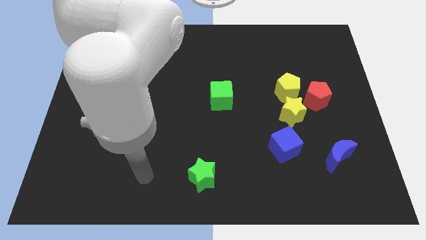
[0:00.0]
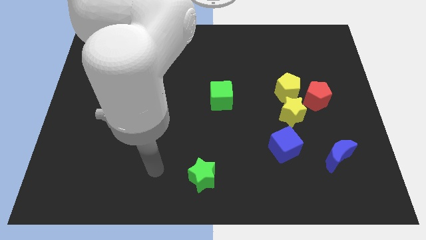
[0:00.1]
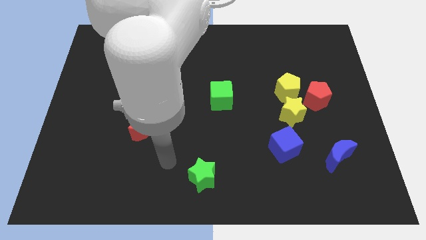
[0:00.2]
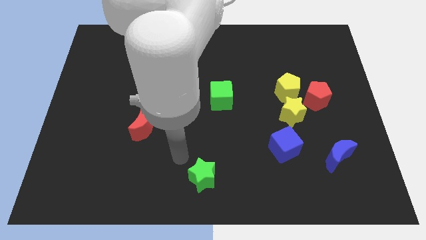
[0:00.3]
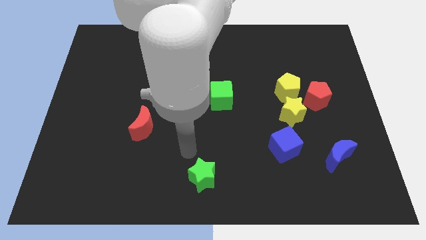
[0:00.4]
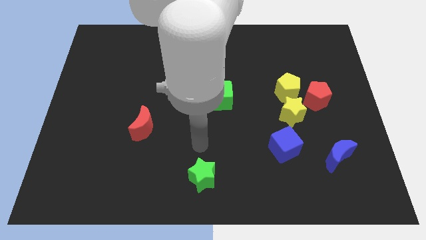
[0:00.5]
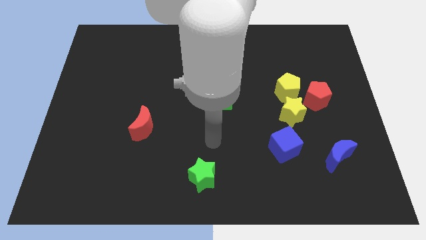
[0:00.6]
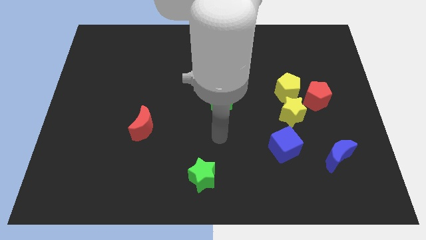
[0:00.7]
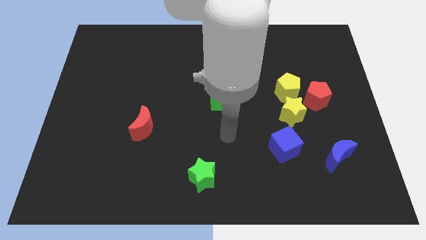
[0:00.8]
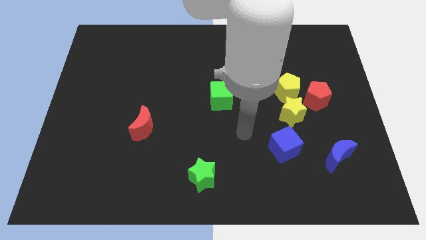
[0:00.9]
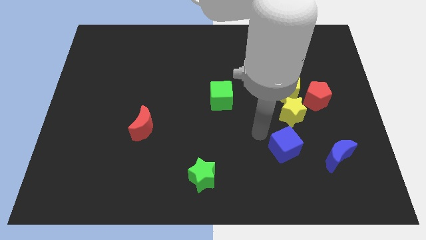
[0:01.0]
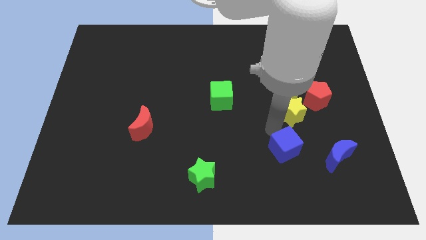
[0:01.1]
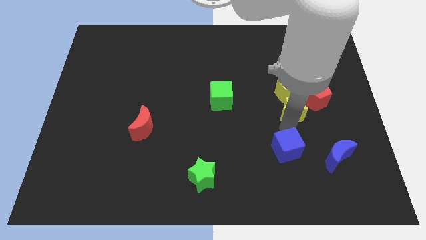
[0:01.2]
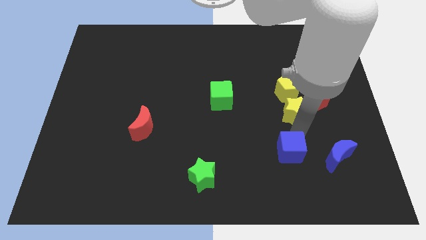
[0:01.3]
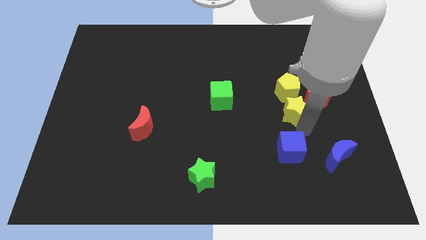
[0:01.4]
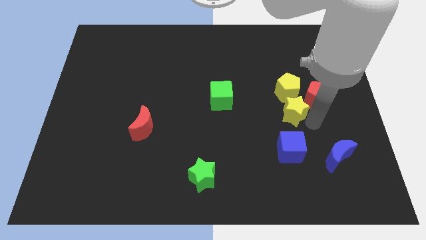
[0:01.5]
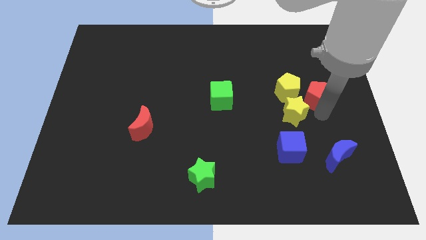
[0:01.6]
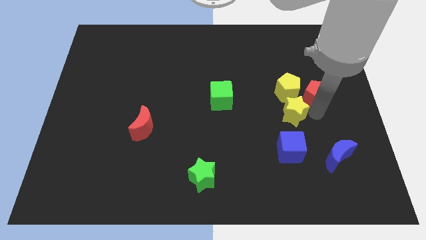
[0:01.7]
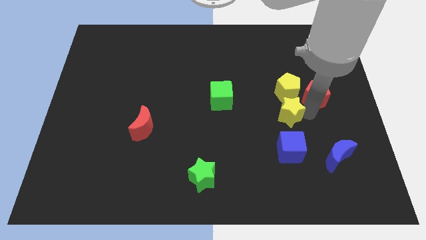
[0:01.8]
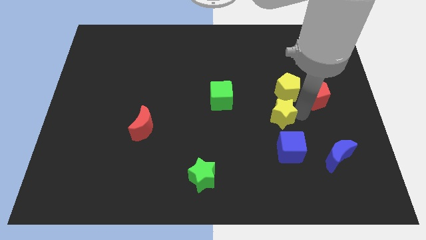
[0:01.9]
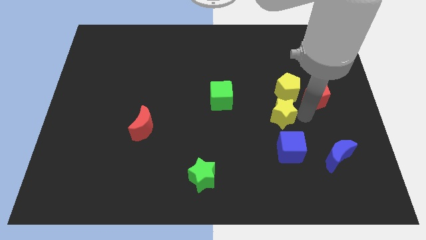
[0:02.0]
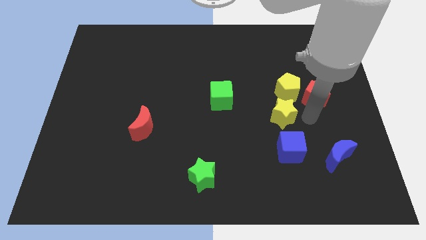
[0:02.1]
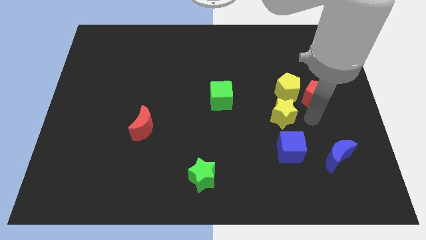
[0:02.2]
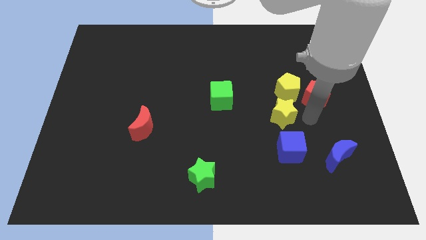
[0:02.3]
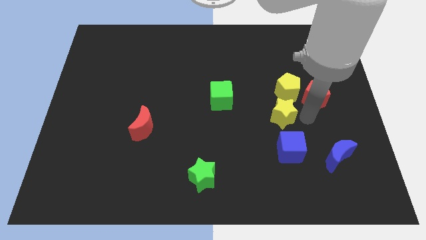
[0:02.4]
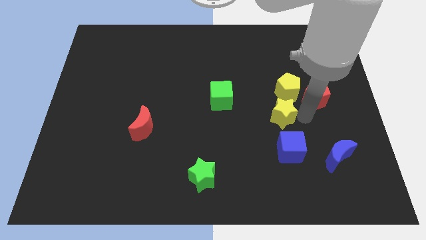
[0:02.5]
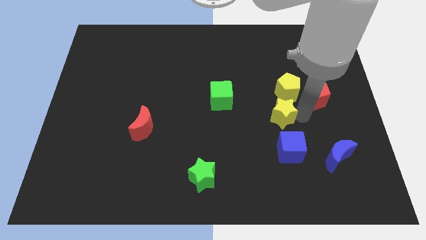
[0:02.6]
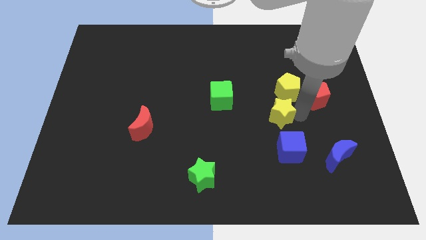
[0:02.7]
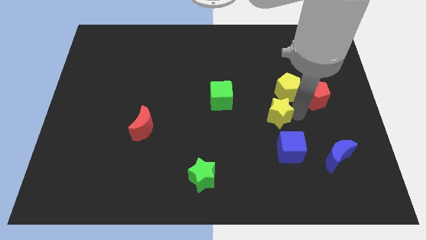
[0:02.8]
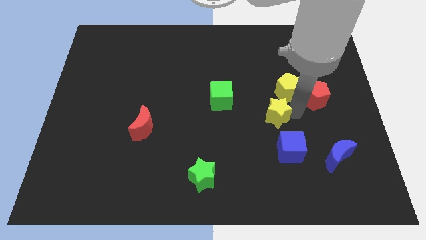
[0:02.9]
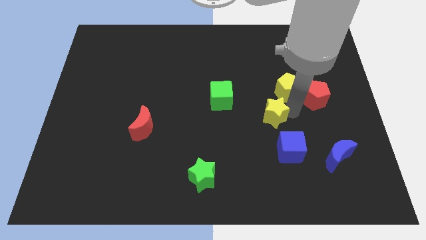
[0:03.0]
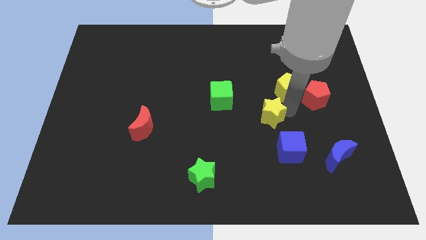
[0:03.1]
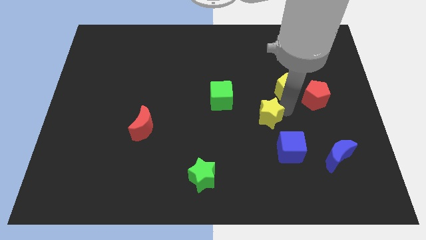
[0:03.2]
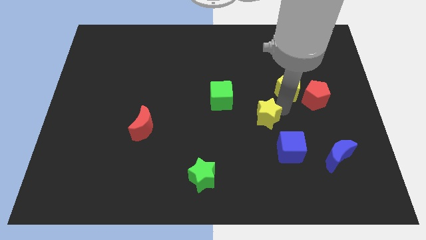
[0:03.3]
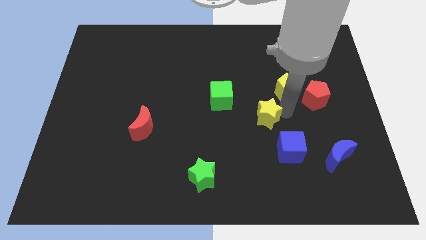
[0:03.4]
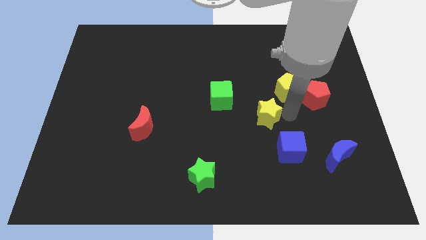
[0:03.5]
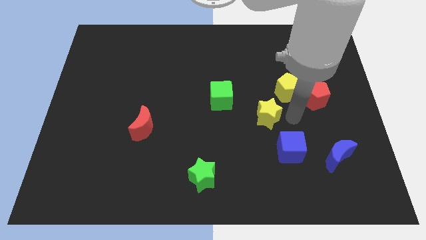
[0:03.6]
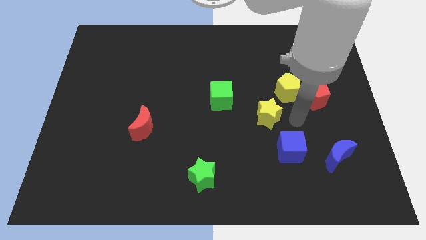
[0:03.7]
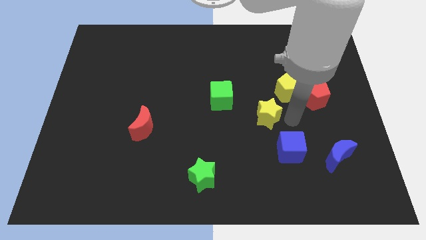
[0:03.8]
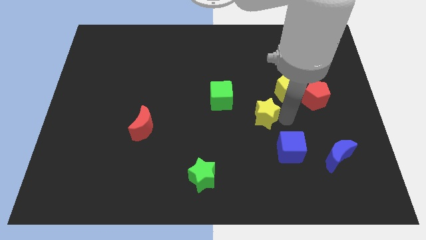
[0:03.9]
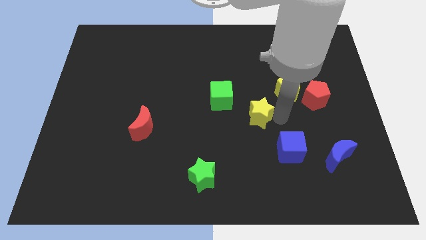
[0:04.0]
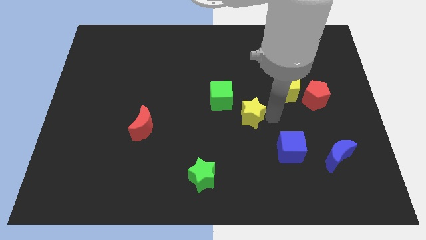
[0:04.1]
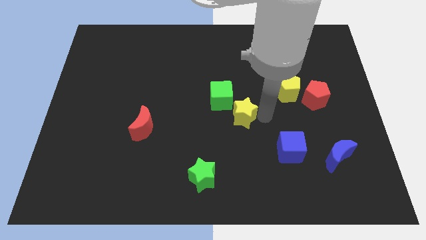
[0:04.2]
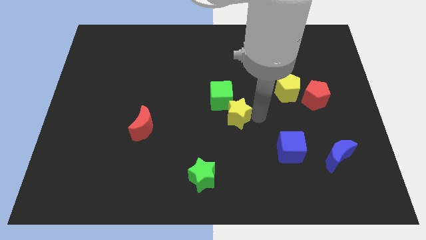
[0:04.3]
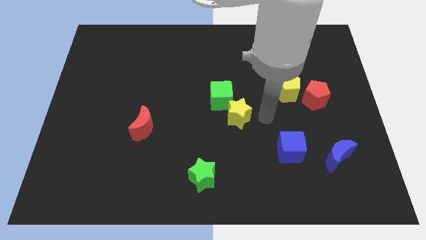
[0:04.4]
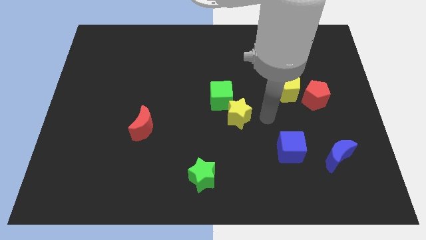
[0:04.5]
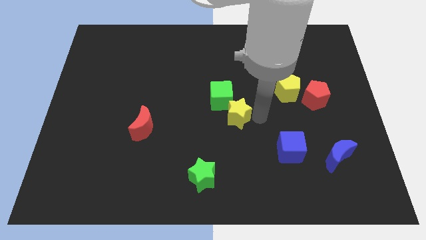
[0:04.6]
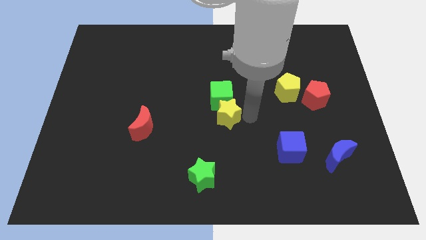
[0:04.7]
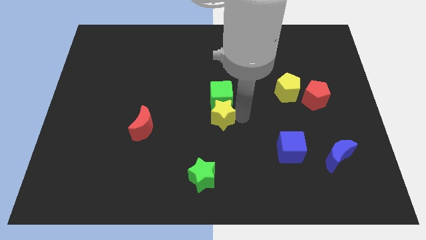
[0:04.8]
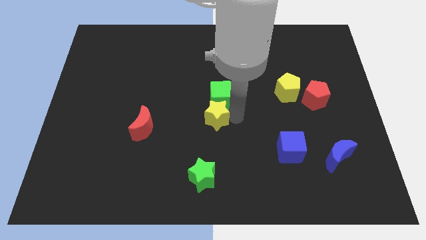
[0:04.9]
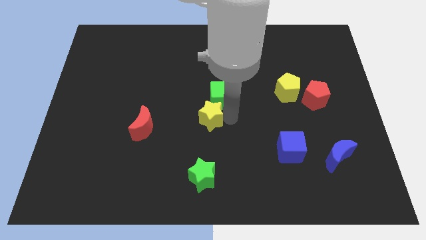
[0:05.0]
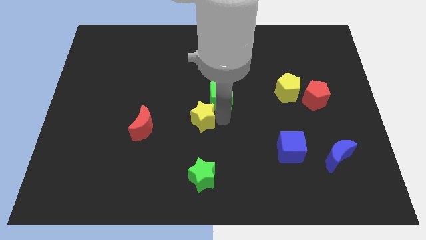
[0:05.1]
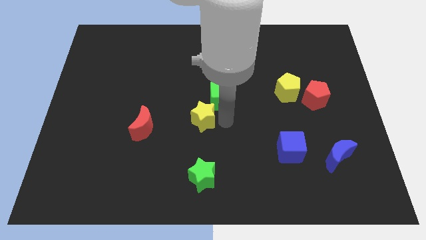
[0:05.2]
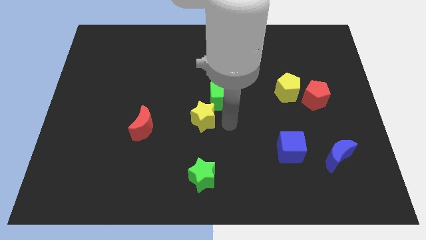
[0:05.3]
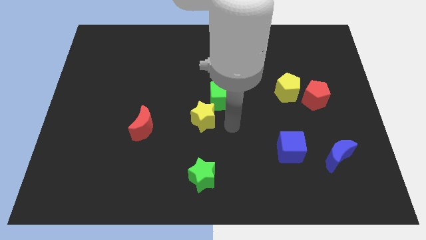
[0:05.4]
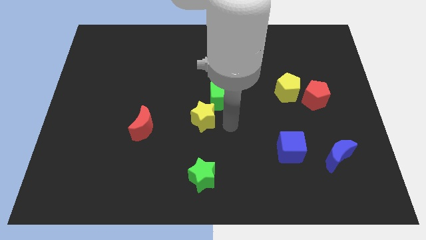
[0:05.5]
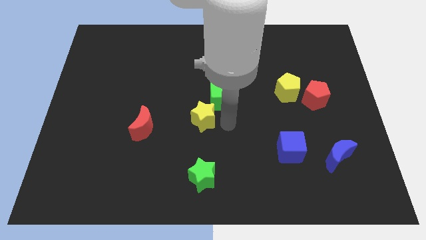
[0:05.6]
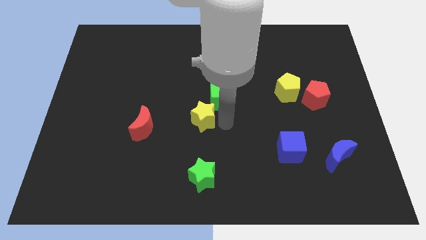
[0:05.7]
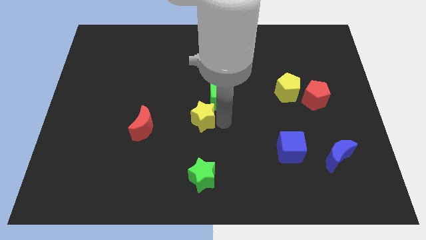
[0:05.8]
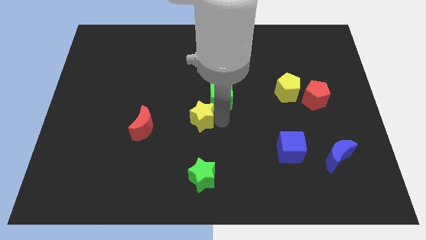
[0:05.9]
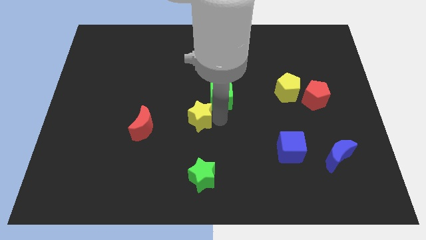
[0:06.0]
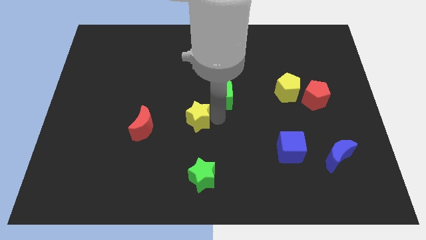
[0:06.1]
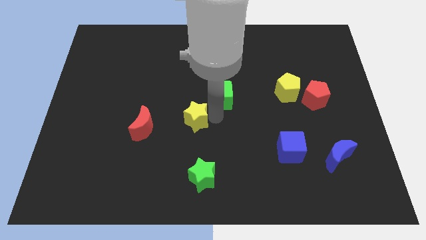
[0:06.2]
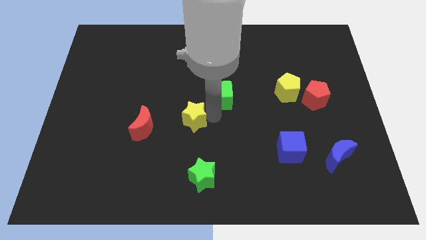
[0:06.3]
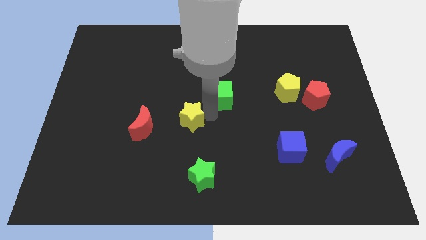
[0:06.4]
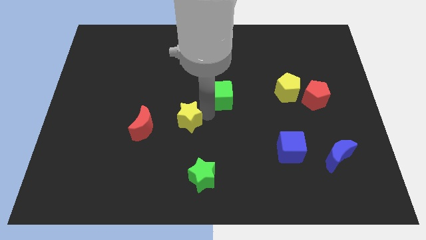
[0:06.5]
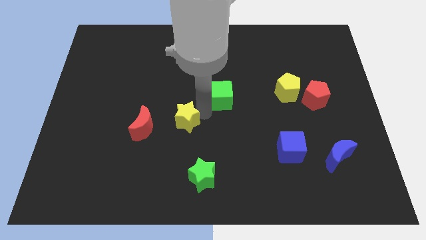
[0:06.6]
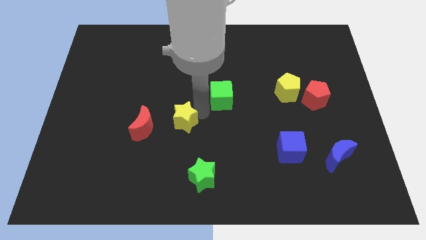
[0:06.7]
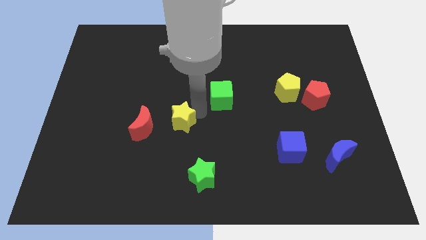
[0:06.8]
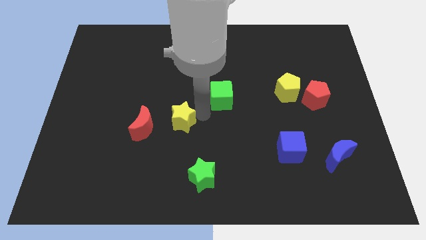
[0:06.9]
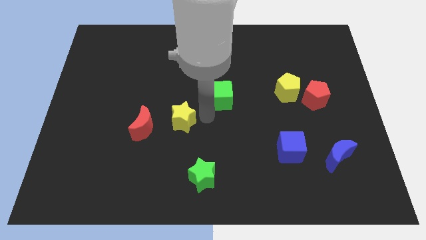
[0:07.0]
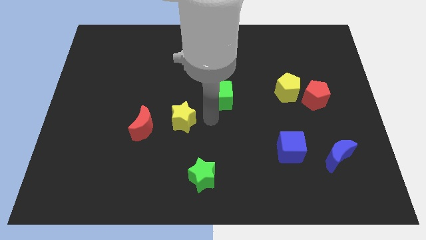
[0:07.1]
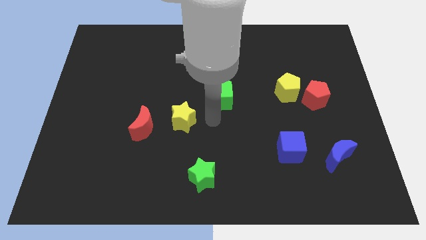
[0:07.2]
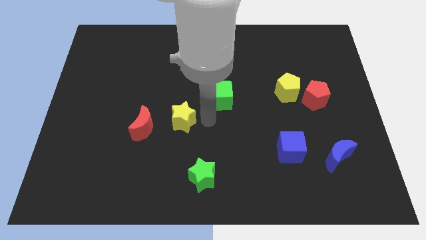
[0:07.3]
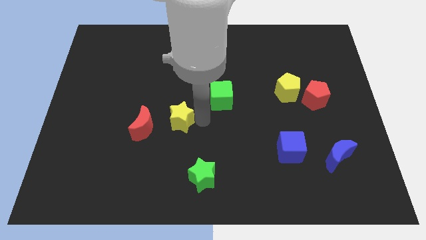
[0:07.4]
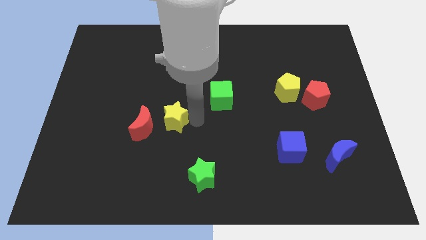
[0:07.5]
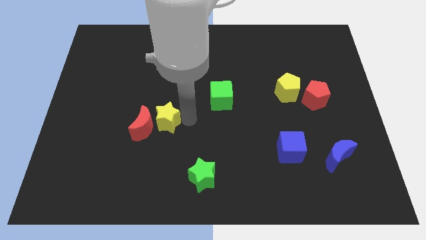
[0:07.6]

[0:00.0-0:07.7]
push the yellow star next to the red moon
